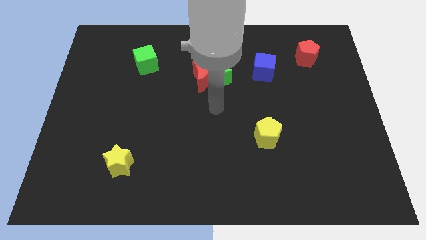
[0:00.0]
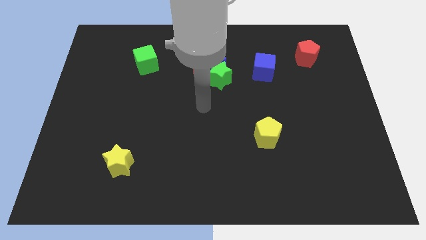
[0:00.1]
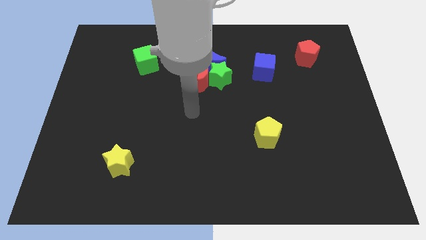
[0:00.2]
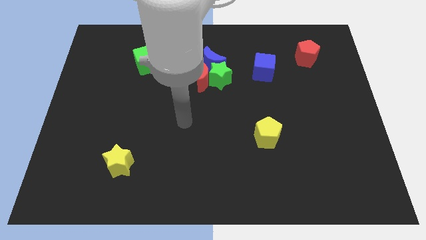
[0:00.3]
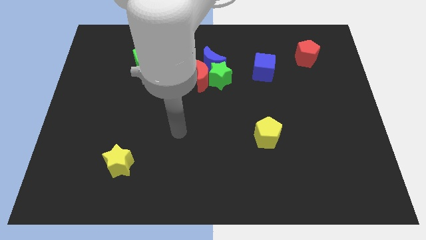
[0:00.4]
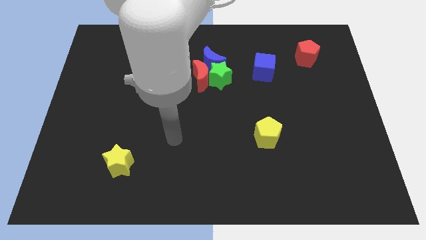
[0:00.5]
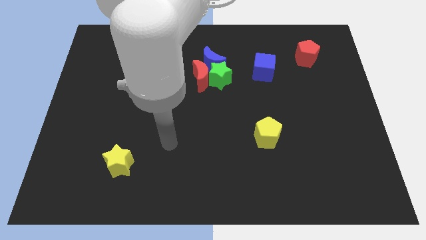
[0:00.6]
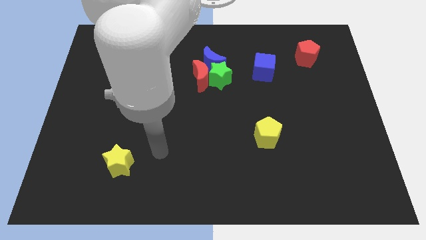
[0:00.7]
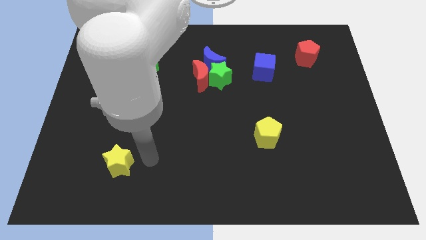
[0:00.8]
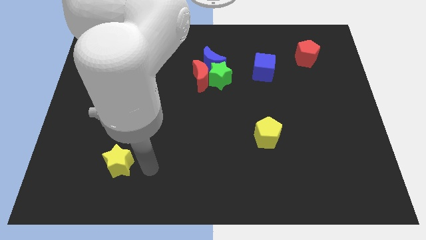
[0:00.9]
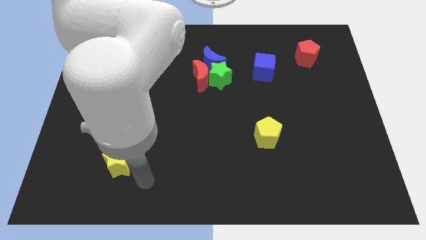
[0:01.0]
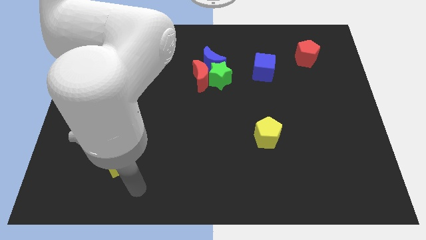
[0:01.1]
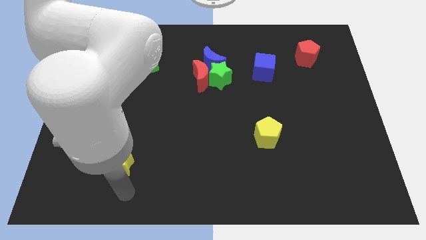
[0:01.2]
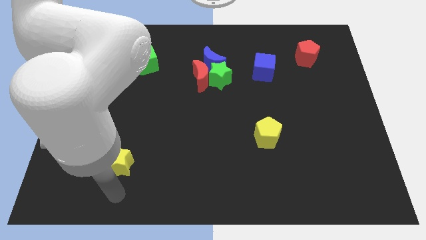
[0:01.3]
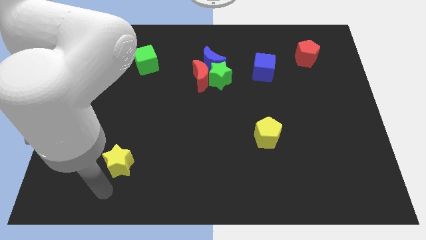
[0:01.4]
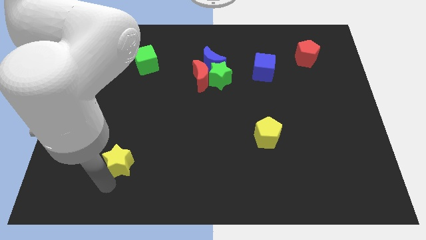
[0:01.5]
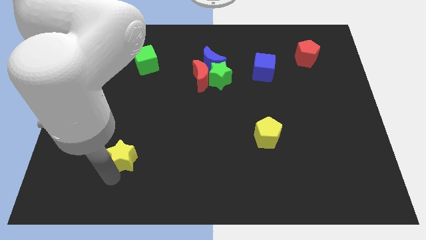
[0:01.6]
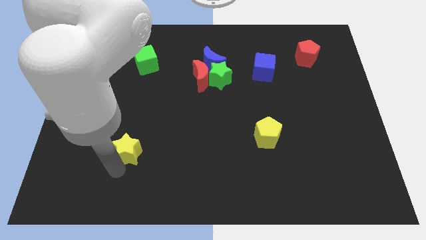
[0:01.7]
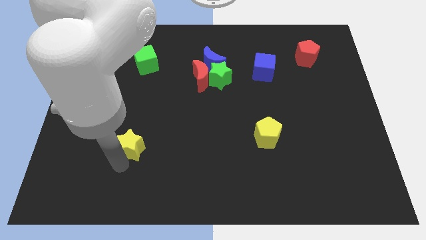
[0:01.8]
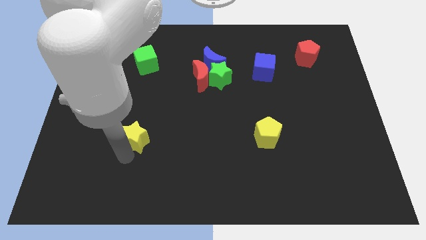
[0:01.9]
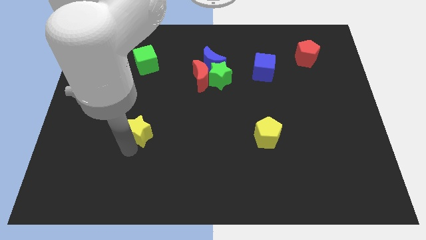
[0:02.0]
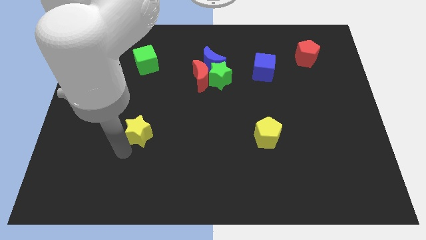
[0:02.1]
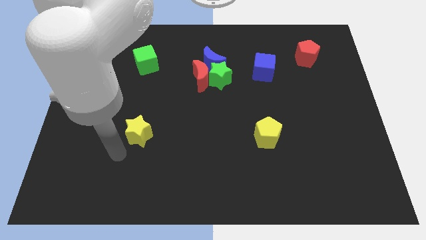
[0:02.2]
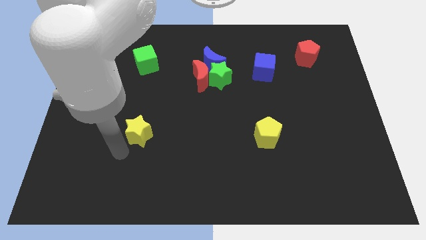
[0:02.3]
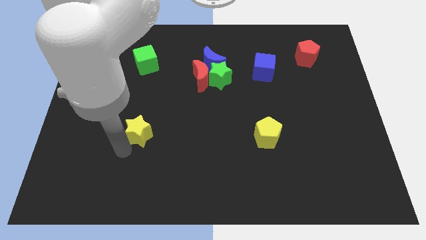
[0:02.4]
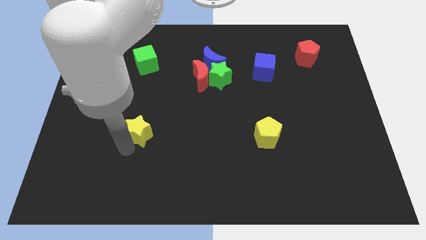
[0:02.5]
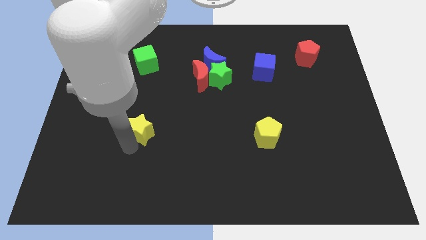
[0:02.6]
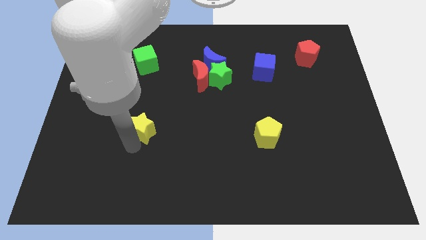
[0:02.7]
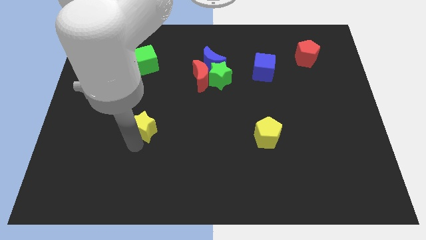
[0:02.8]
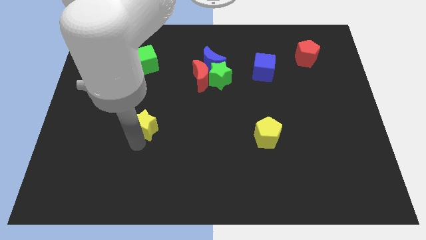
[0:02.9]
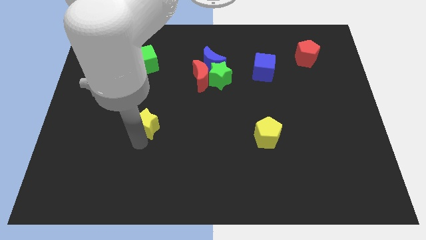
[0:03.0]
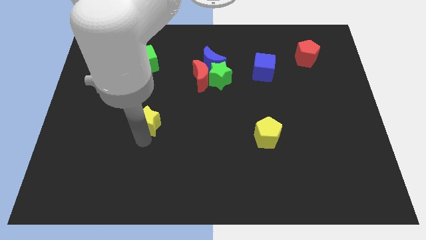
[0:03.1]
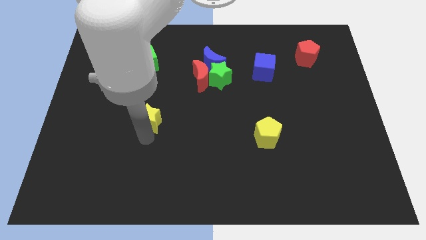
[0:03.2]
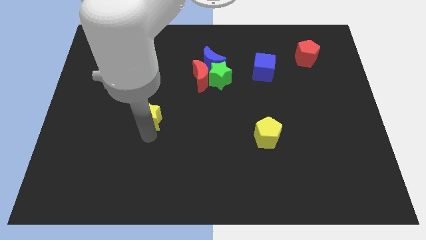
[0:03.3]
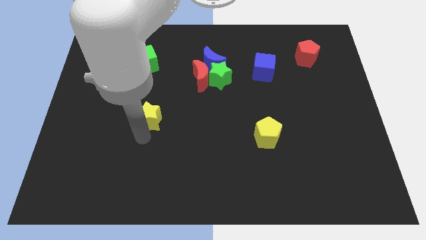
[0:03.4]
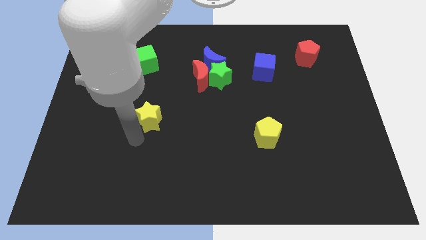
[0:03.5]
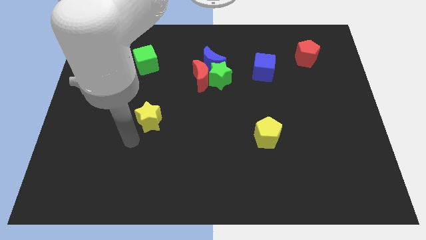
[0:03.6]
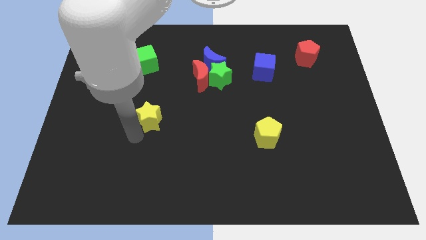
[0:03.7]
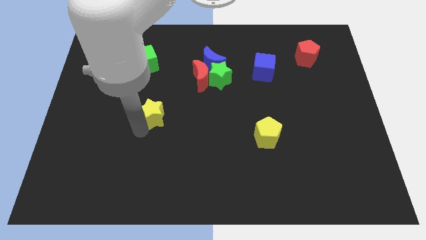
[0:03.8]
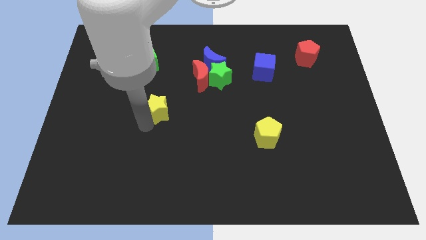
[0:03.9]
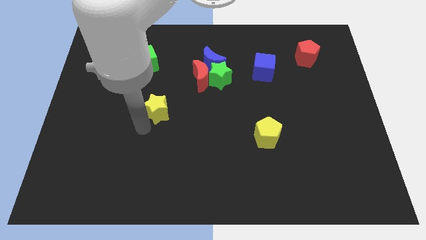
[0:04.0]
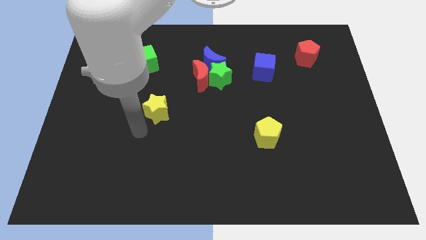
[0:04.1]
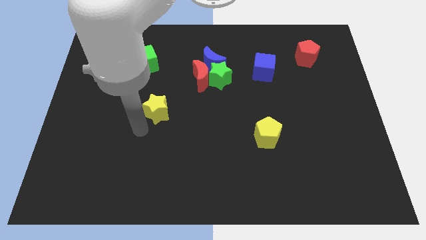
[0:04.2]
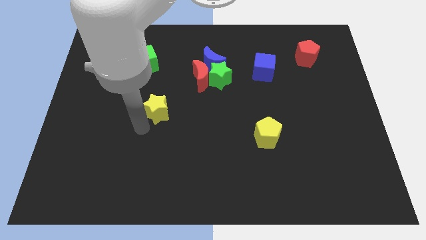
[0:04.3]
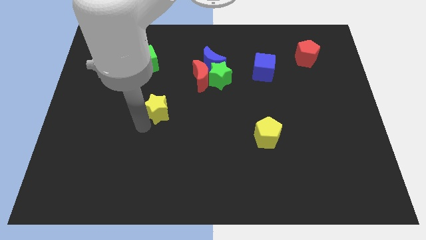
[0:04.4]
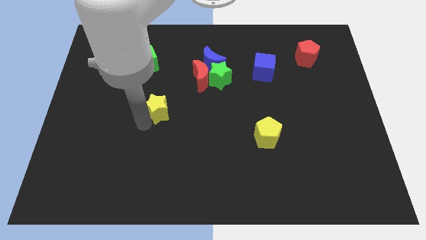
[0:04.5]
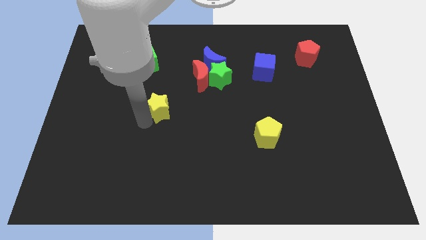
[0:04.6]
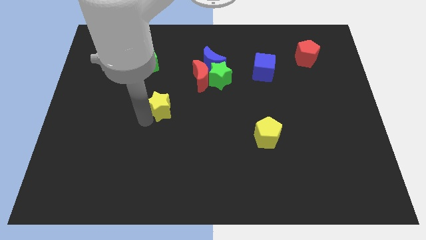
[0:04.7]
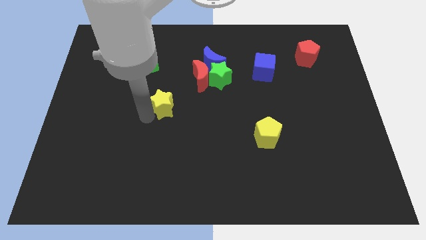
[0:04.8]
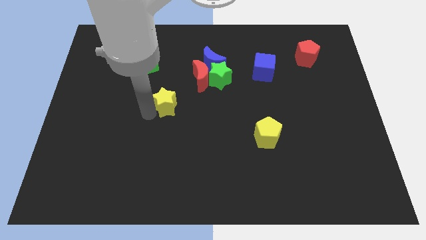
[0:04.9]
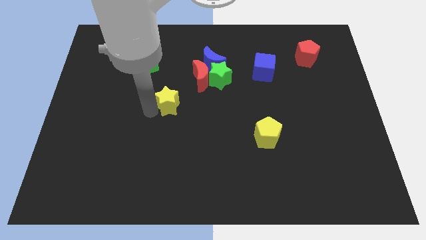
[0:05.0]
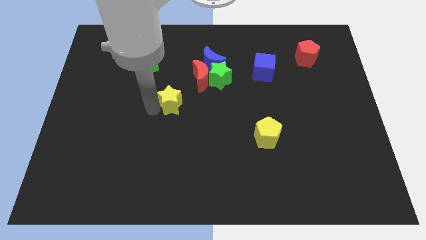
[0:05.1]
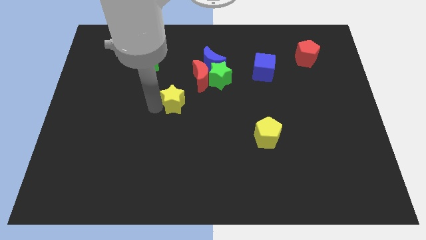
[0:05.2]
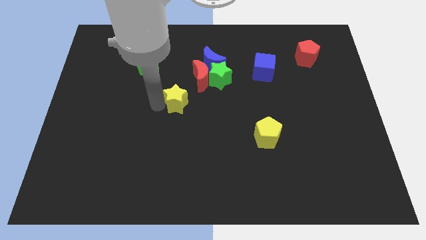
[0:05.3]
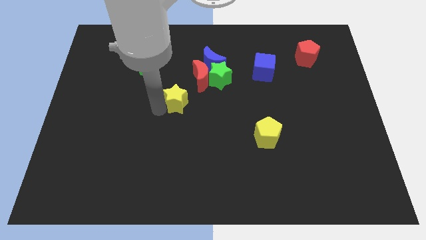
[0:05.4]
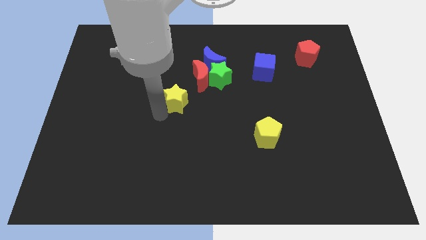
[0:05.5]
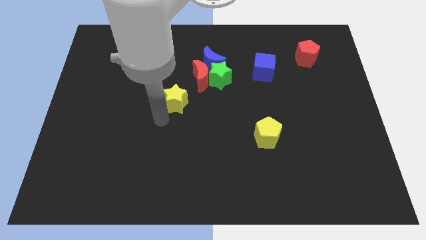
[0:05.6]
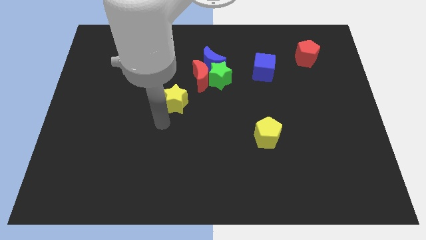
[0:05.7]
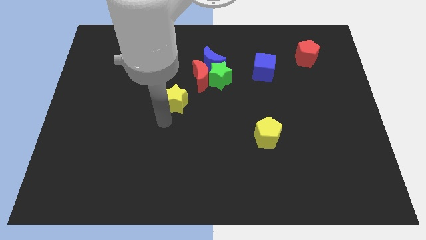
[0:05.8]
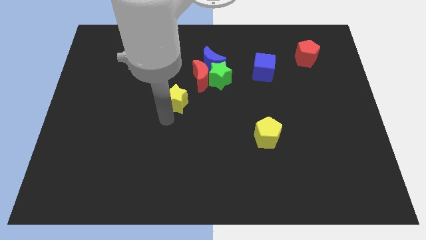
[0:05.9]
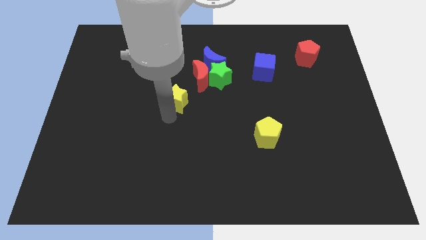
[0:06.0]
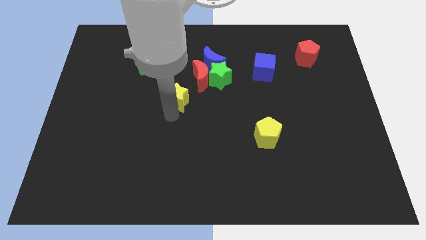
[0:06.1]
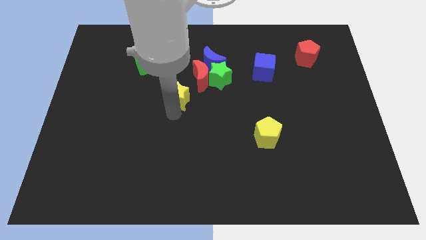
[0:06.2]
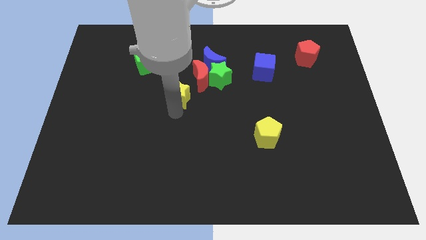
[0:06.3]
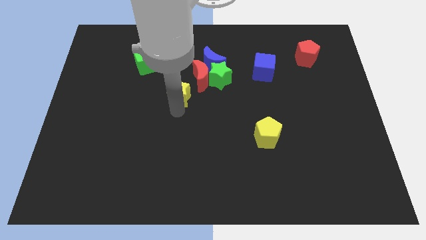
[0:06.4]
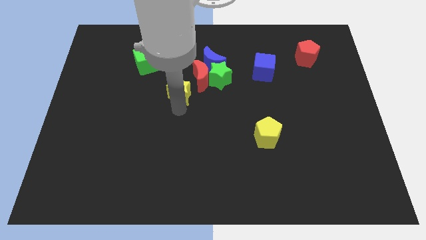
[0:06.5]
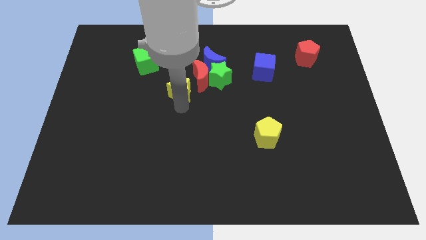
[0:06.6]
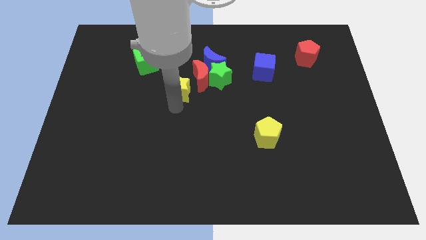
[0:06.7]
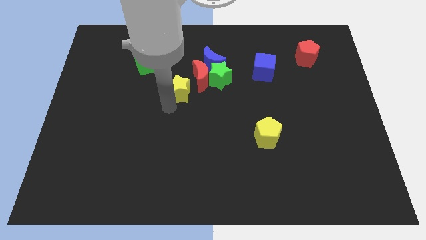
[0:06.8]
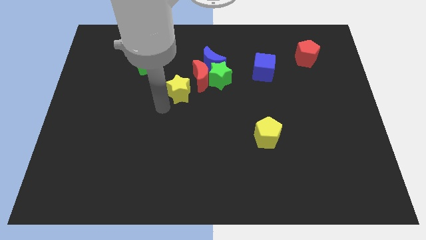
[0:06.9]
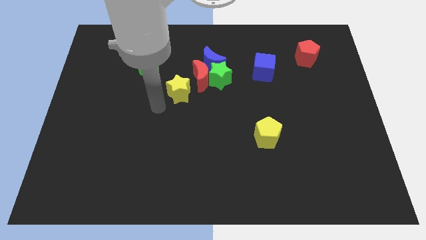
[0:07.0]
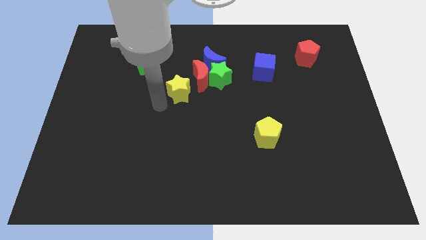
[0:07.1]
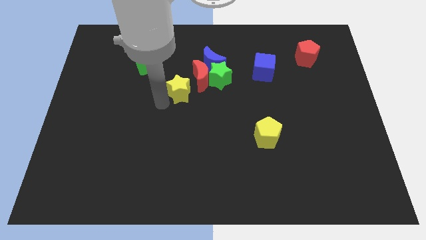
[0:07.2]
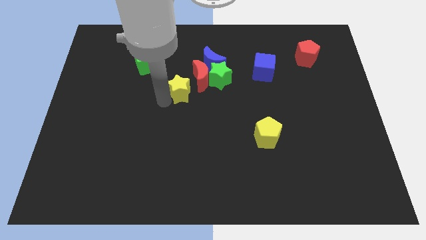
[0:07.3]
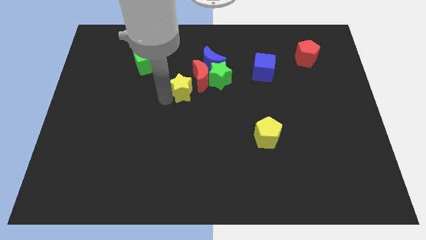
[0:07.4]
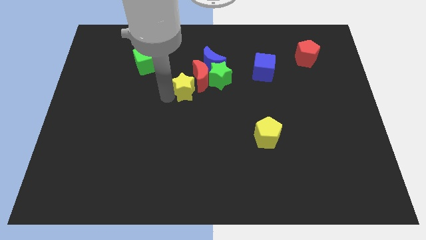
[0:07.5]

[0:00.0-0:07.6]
put the yellow star next to the red moon
